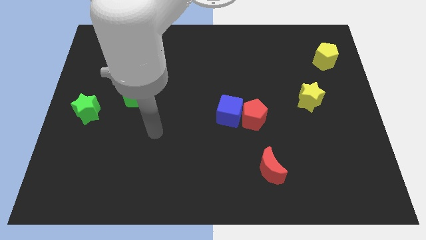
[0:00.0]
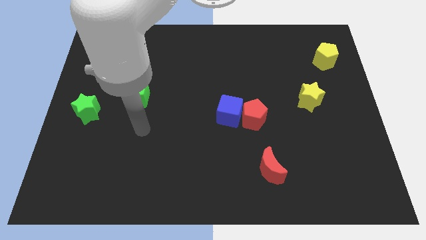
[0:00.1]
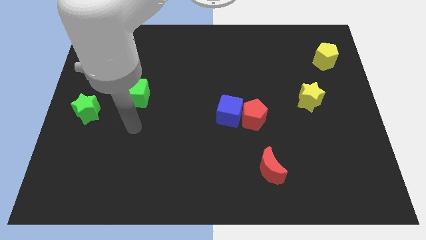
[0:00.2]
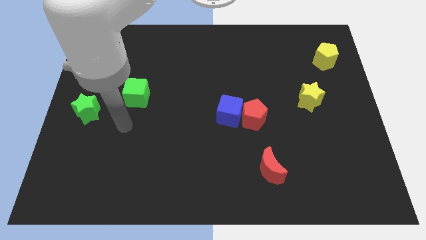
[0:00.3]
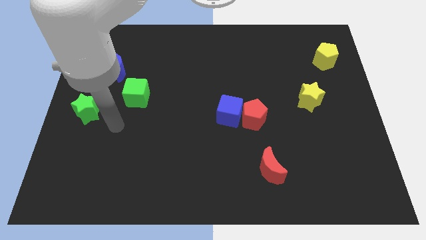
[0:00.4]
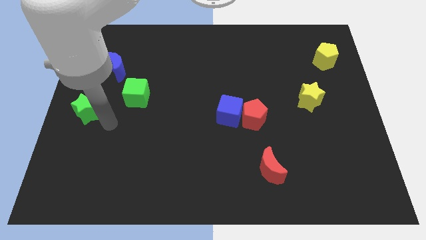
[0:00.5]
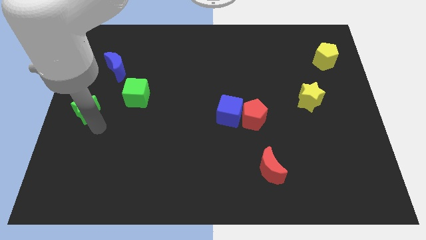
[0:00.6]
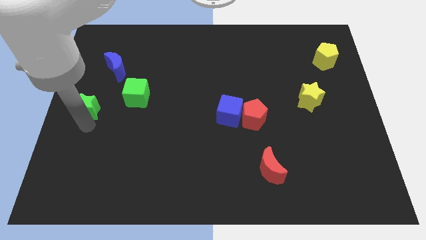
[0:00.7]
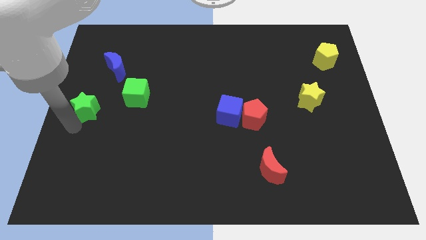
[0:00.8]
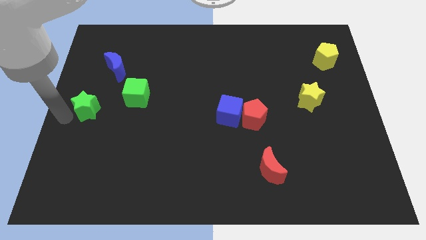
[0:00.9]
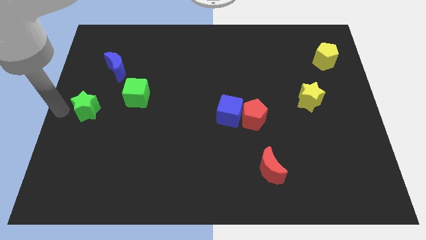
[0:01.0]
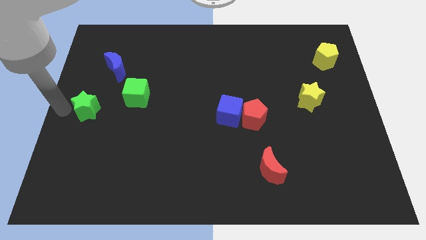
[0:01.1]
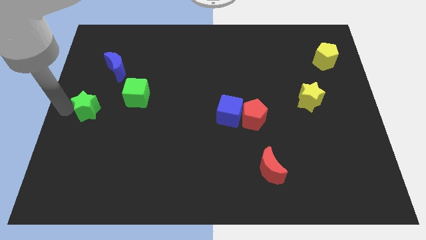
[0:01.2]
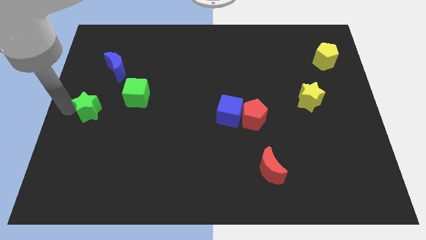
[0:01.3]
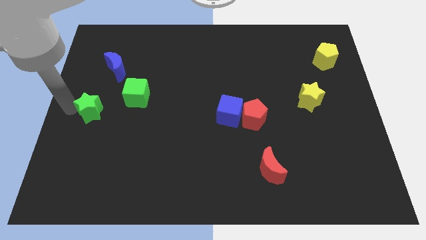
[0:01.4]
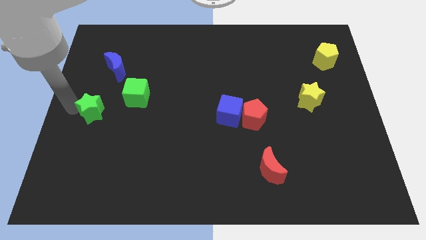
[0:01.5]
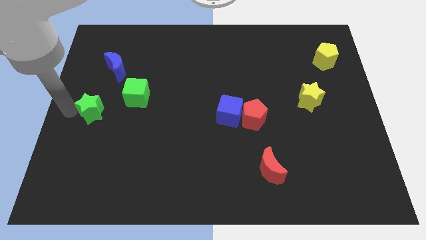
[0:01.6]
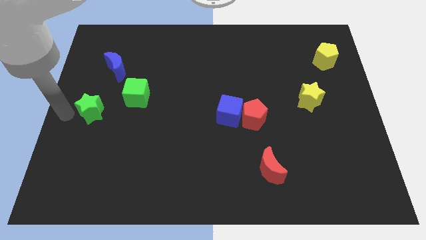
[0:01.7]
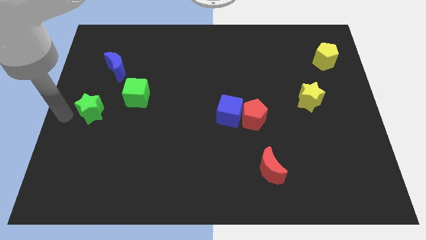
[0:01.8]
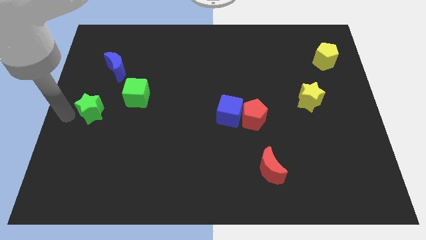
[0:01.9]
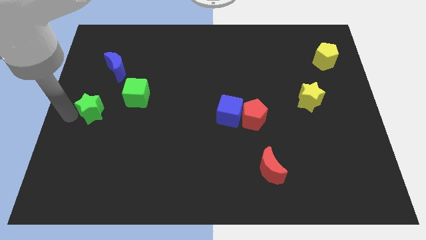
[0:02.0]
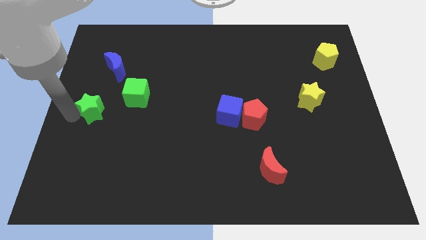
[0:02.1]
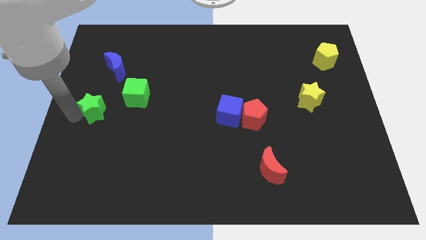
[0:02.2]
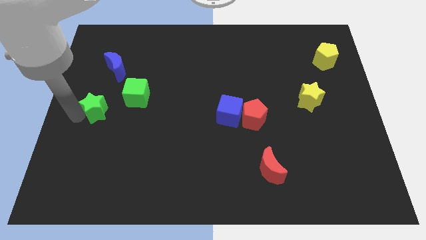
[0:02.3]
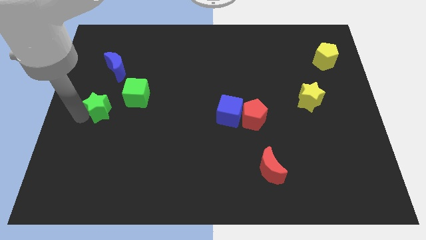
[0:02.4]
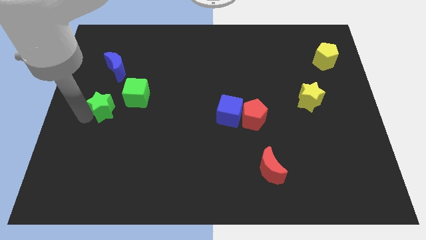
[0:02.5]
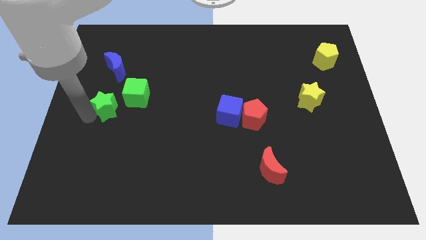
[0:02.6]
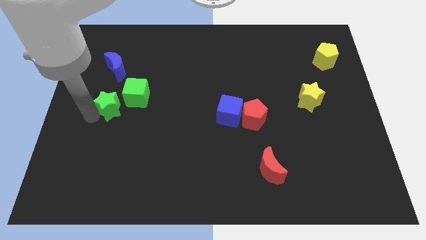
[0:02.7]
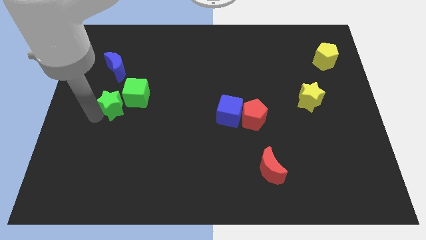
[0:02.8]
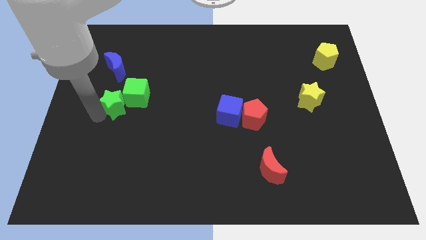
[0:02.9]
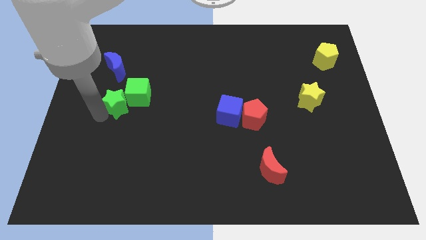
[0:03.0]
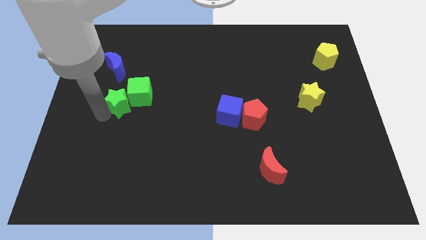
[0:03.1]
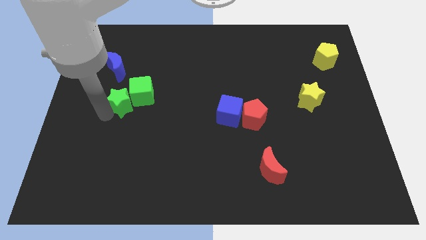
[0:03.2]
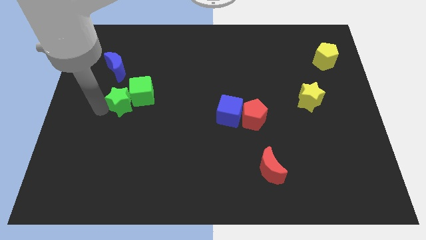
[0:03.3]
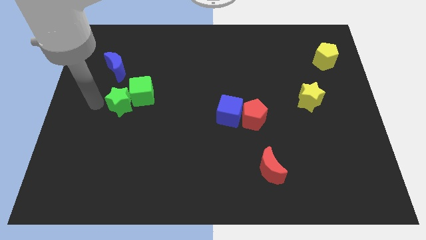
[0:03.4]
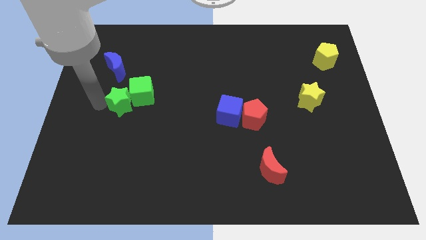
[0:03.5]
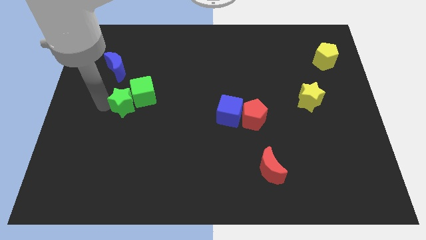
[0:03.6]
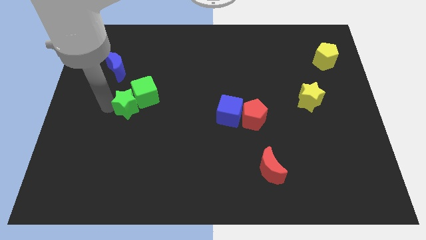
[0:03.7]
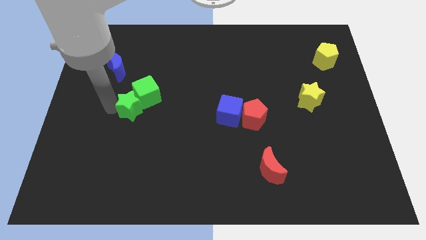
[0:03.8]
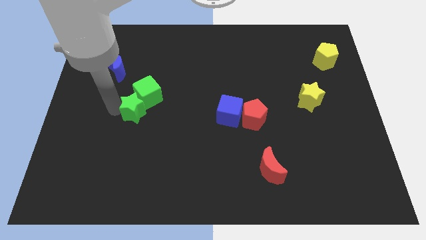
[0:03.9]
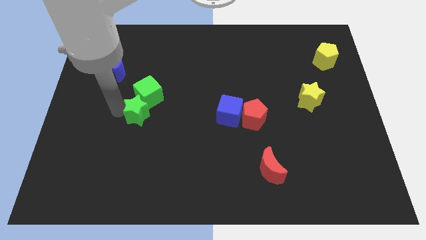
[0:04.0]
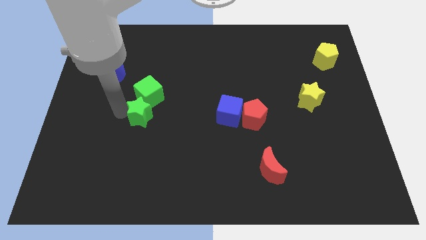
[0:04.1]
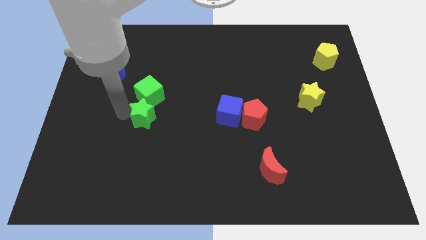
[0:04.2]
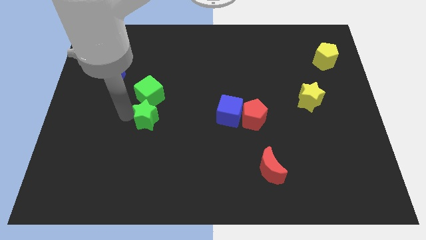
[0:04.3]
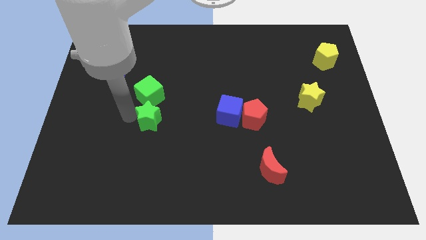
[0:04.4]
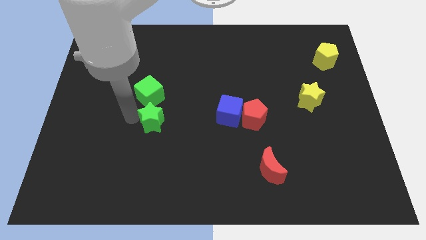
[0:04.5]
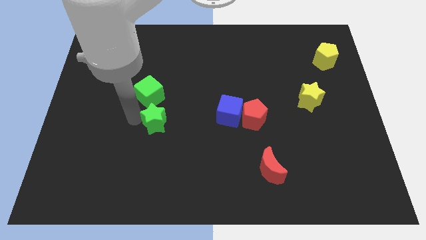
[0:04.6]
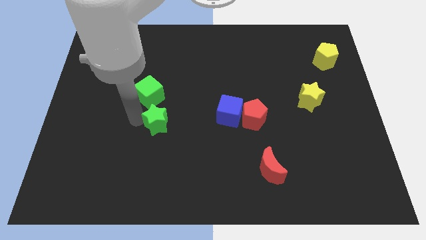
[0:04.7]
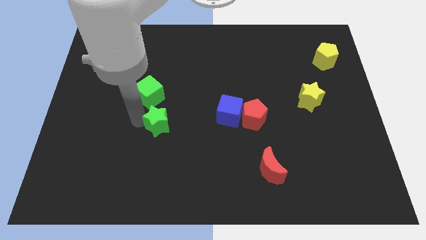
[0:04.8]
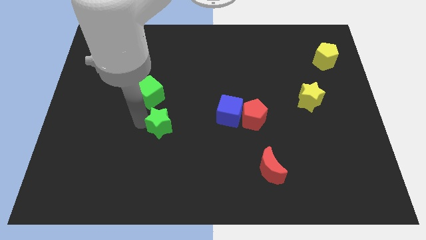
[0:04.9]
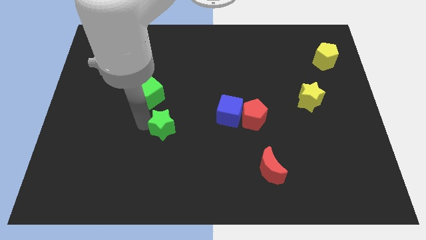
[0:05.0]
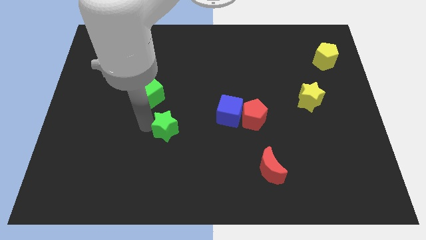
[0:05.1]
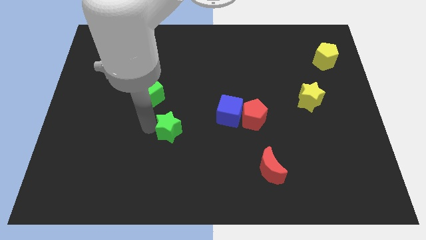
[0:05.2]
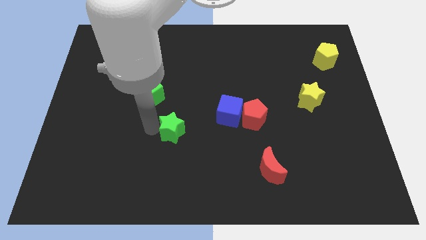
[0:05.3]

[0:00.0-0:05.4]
push the green star to the center

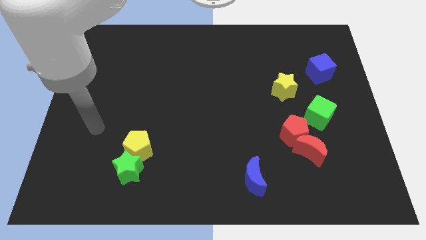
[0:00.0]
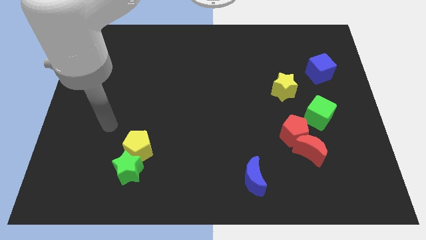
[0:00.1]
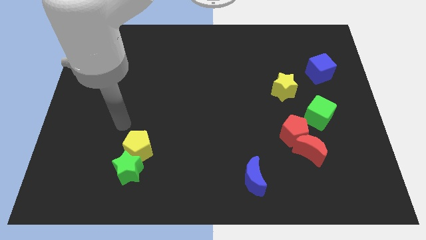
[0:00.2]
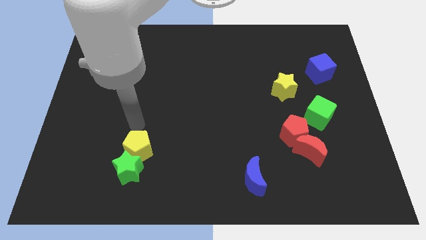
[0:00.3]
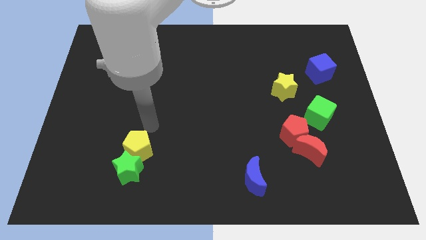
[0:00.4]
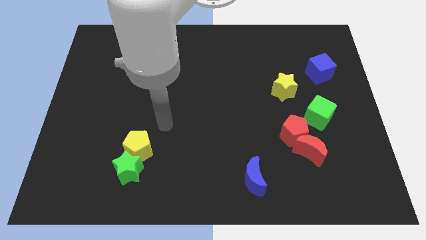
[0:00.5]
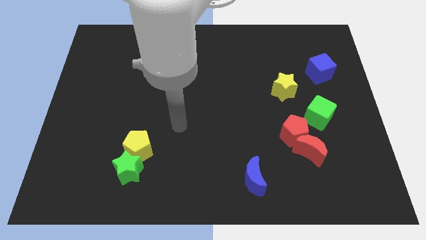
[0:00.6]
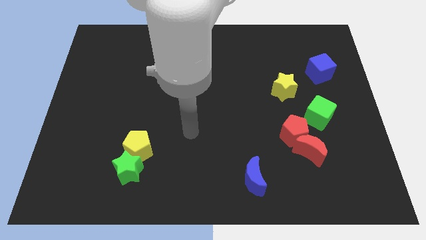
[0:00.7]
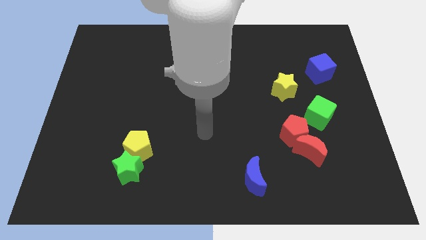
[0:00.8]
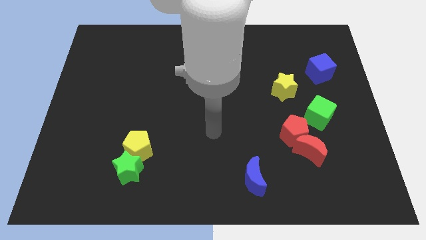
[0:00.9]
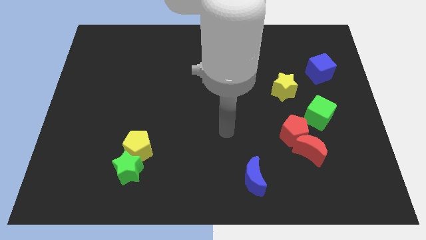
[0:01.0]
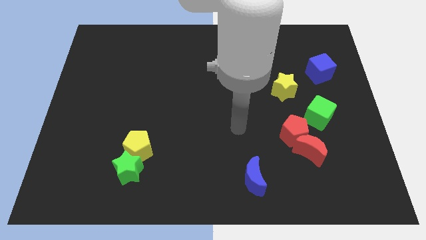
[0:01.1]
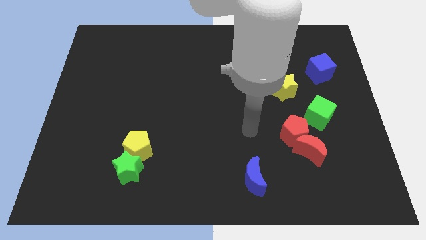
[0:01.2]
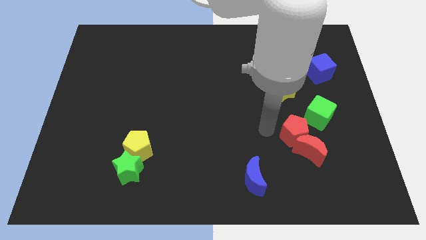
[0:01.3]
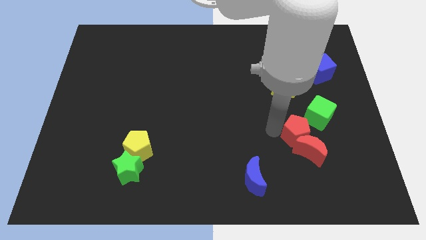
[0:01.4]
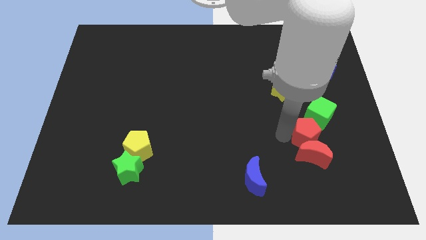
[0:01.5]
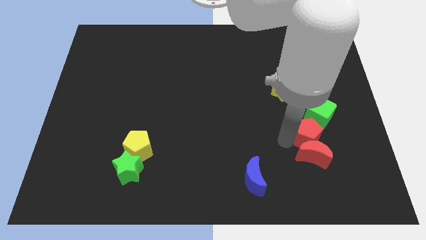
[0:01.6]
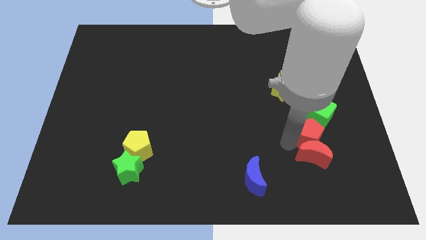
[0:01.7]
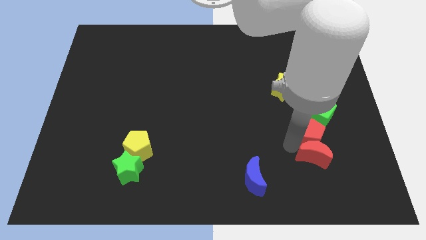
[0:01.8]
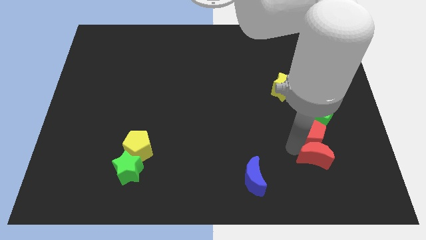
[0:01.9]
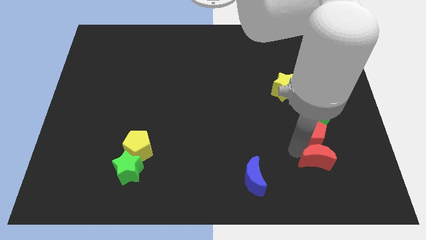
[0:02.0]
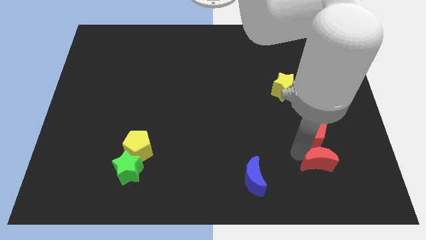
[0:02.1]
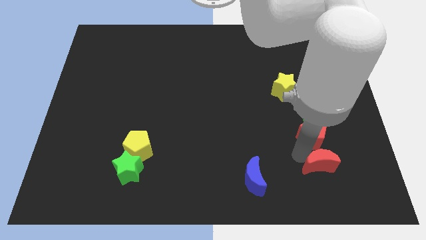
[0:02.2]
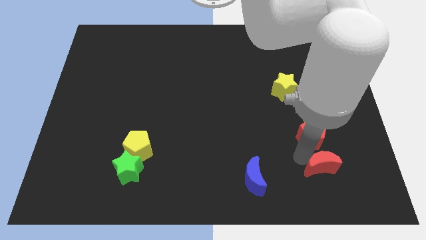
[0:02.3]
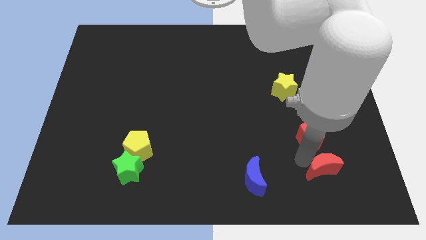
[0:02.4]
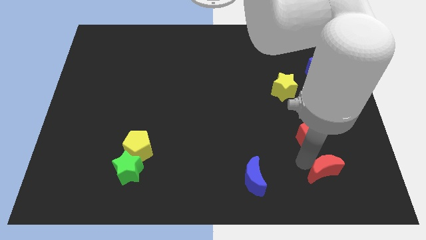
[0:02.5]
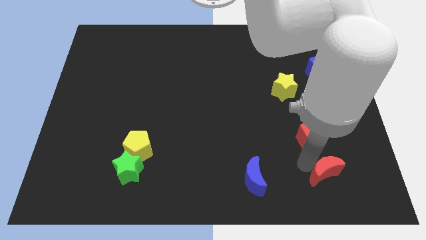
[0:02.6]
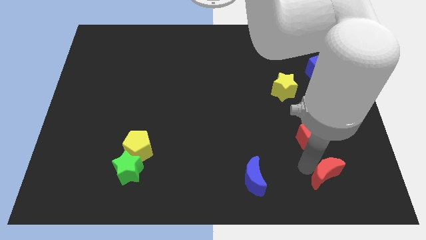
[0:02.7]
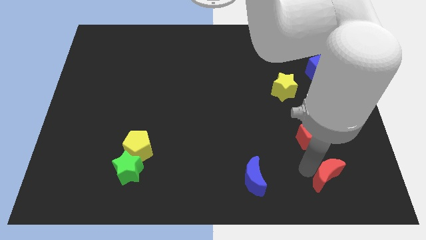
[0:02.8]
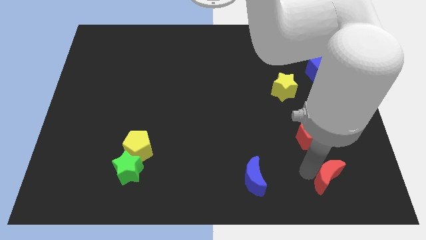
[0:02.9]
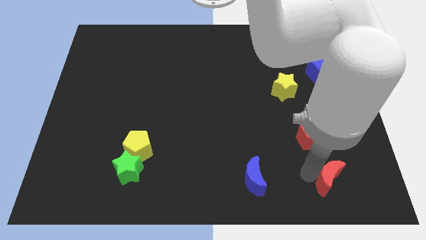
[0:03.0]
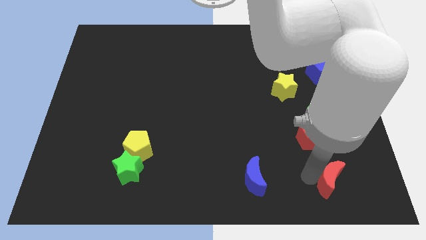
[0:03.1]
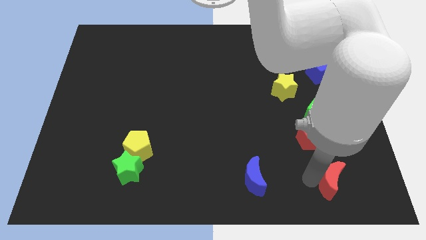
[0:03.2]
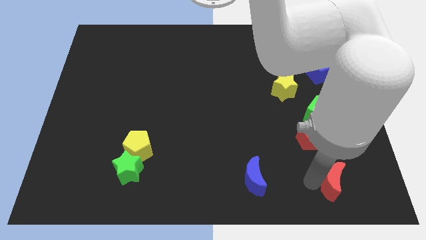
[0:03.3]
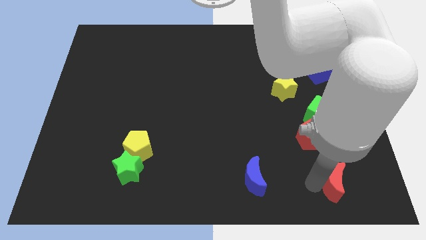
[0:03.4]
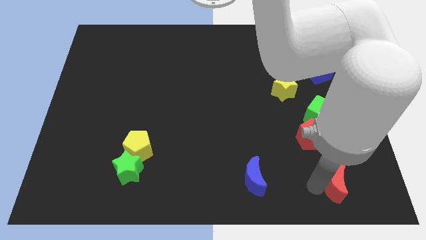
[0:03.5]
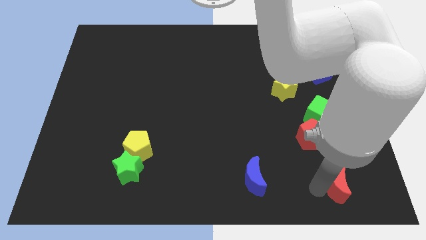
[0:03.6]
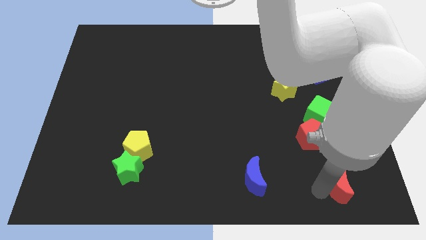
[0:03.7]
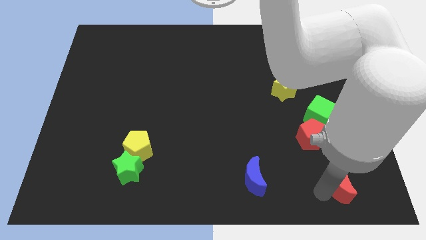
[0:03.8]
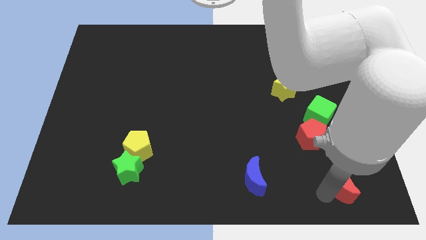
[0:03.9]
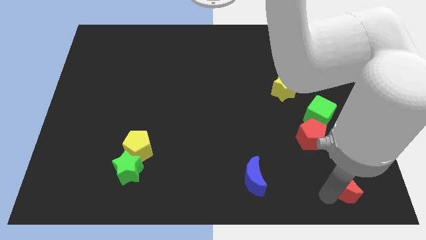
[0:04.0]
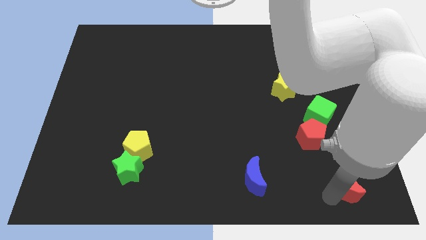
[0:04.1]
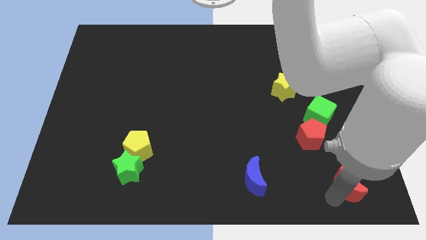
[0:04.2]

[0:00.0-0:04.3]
move the red moon to the bottom right
